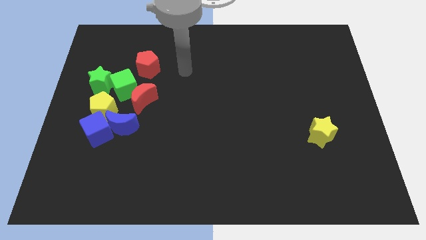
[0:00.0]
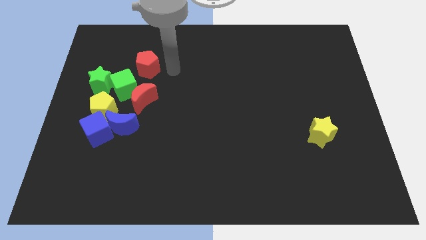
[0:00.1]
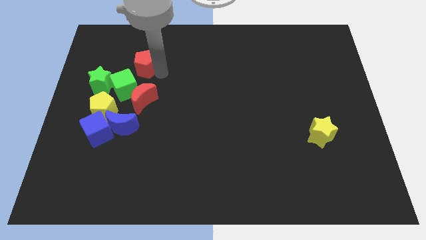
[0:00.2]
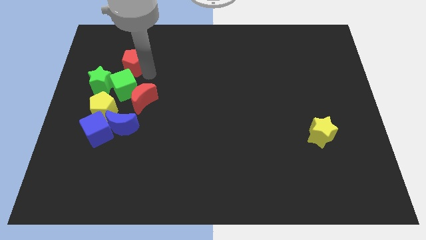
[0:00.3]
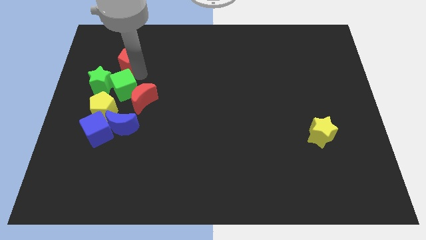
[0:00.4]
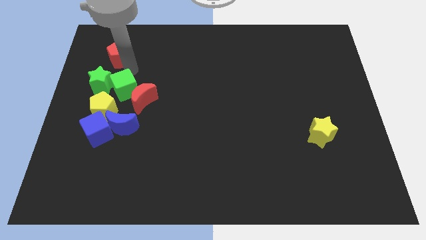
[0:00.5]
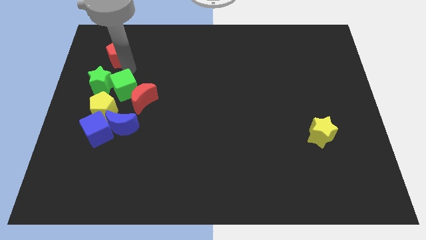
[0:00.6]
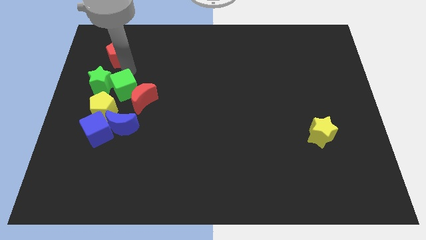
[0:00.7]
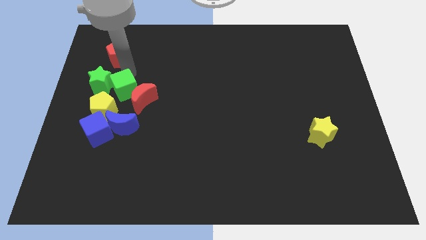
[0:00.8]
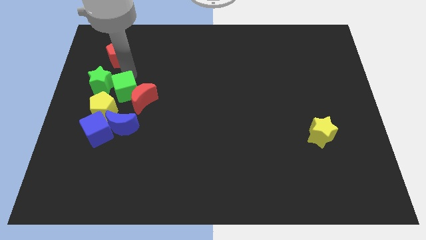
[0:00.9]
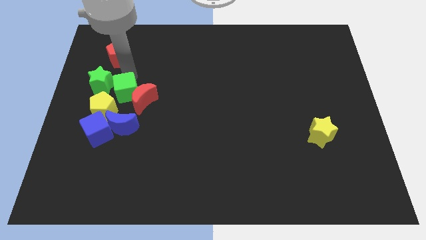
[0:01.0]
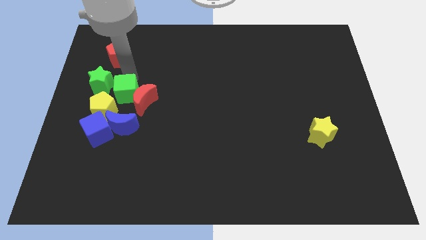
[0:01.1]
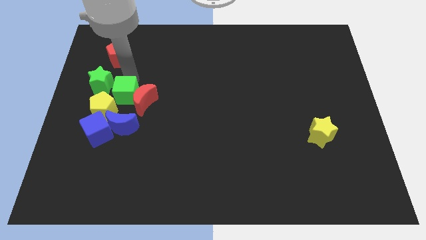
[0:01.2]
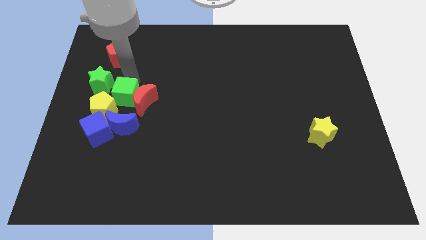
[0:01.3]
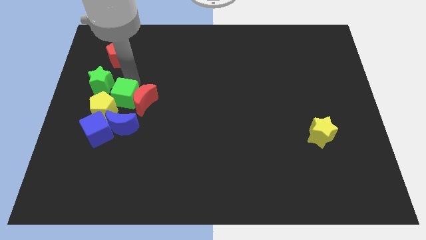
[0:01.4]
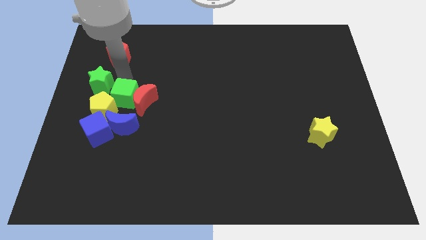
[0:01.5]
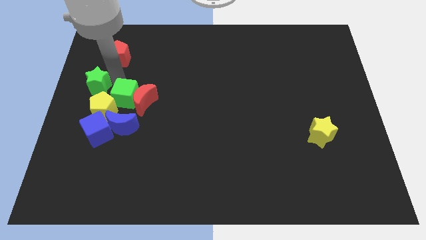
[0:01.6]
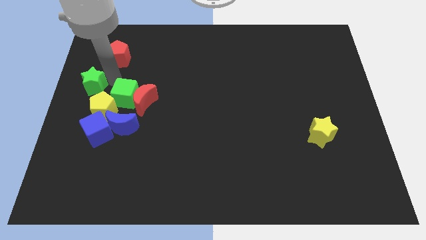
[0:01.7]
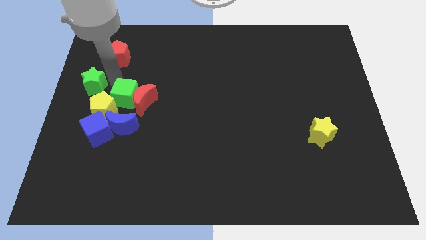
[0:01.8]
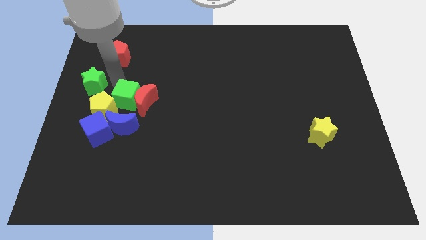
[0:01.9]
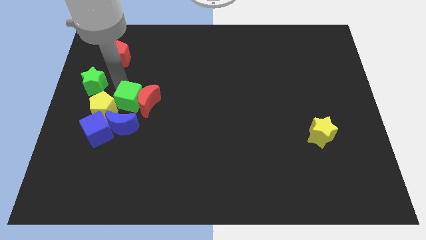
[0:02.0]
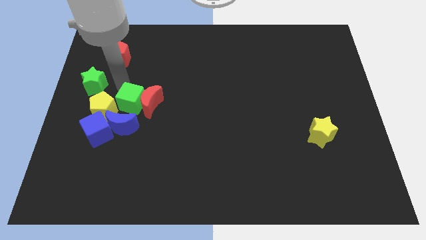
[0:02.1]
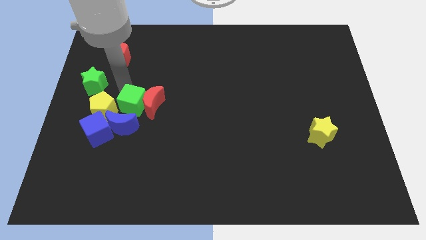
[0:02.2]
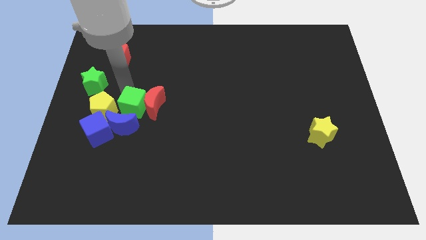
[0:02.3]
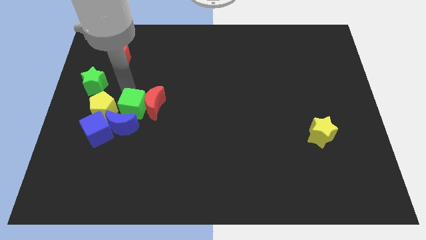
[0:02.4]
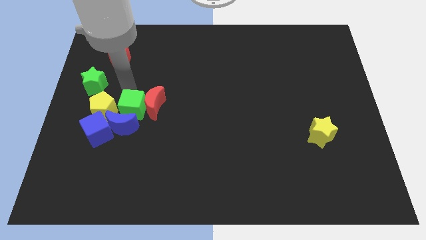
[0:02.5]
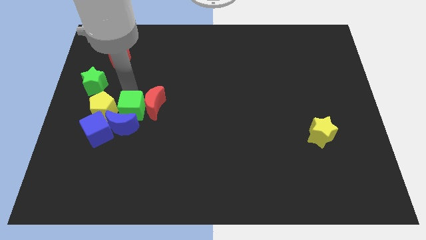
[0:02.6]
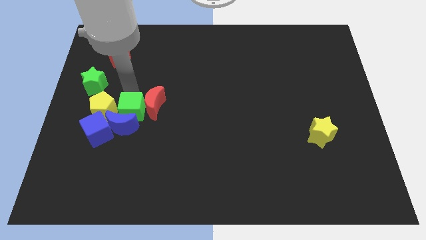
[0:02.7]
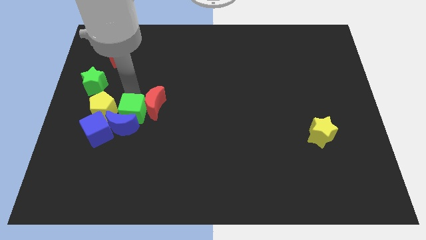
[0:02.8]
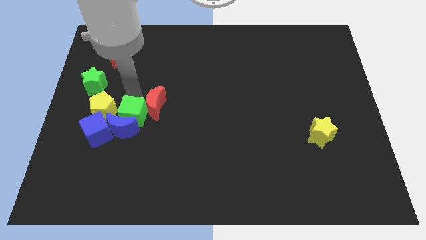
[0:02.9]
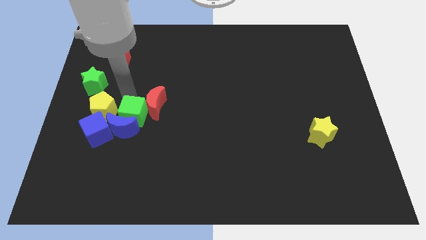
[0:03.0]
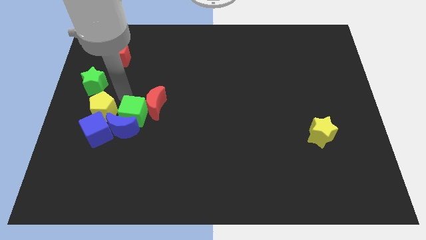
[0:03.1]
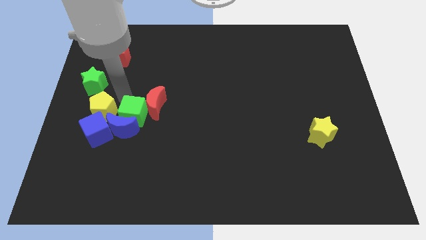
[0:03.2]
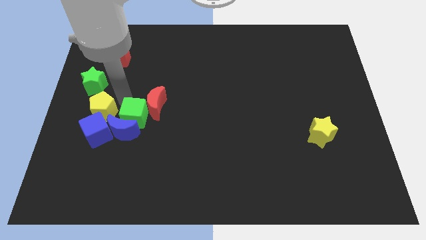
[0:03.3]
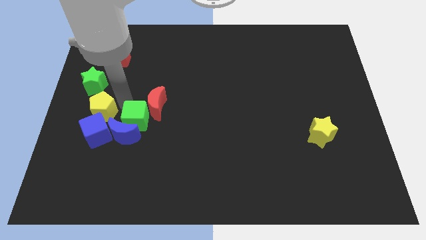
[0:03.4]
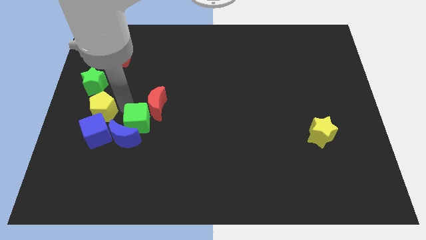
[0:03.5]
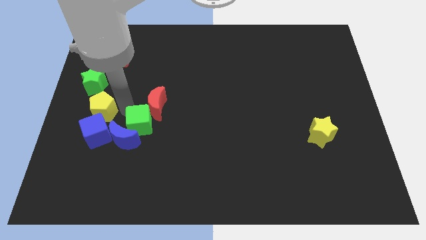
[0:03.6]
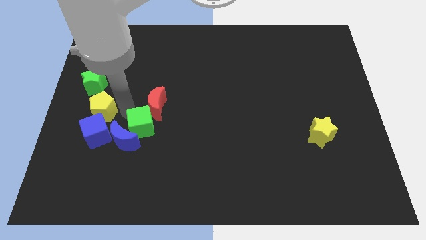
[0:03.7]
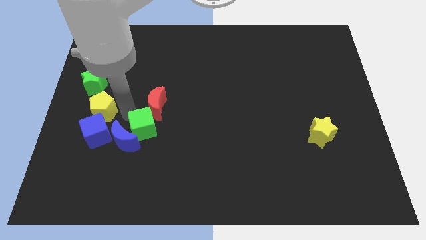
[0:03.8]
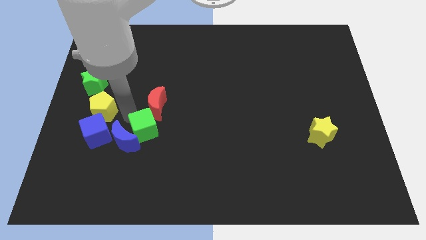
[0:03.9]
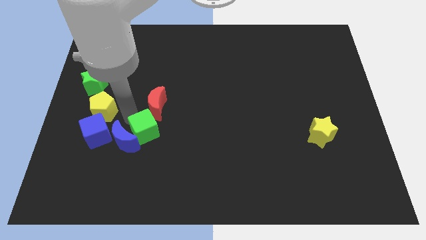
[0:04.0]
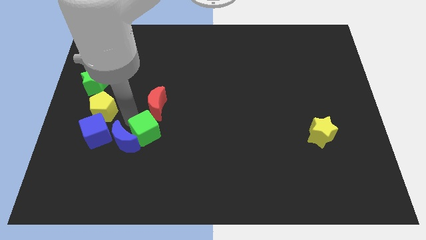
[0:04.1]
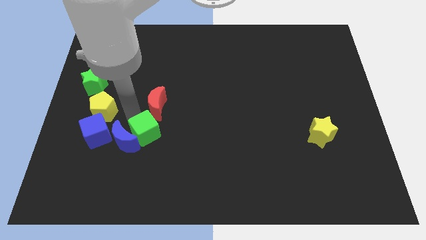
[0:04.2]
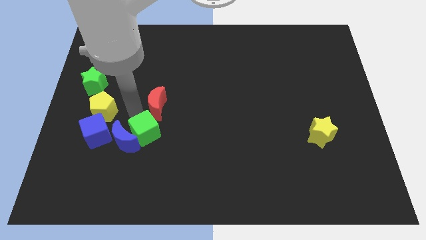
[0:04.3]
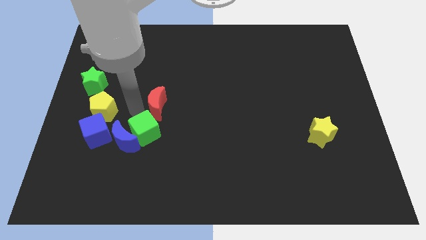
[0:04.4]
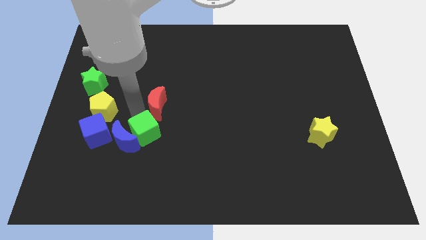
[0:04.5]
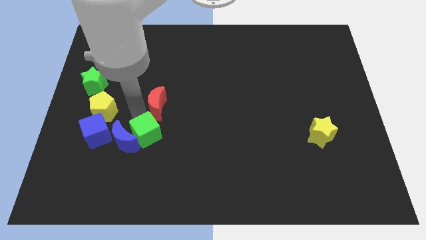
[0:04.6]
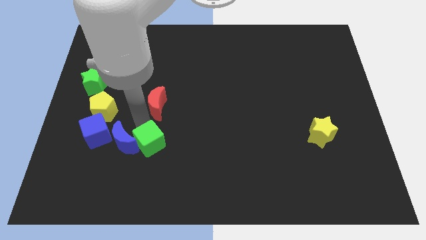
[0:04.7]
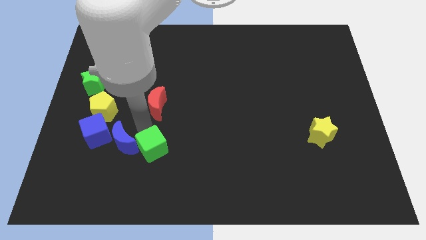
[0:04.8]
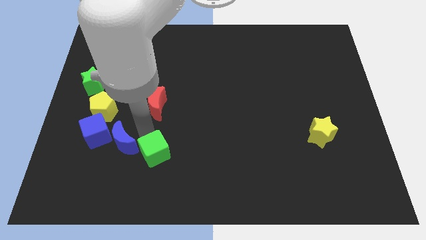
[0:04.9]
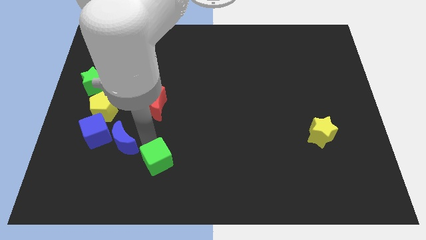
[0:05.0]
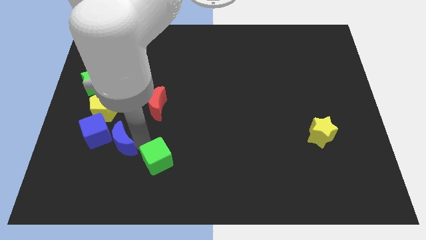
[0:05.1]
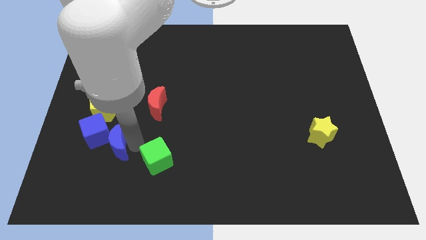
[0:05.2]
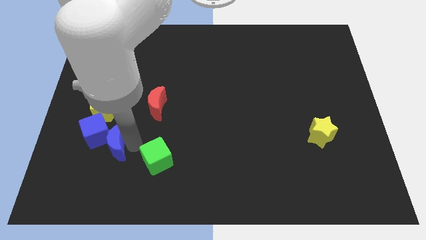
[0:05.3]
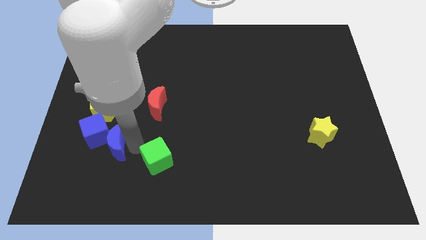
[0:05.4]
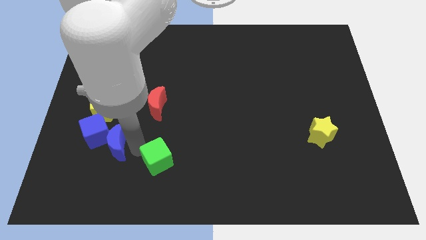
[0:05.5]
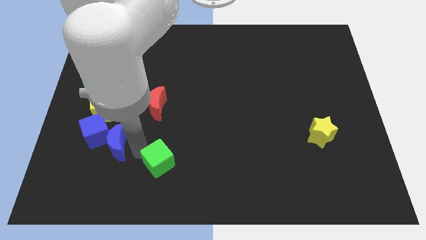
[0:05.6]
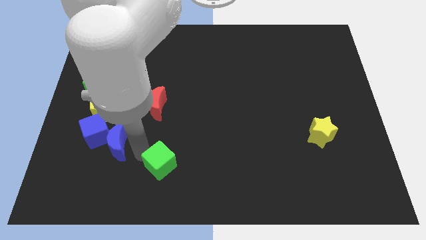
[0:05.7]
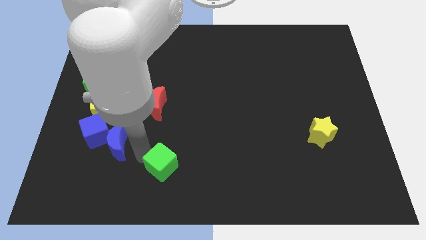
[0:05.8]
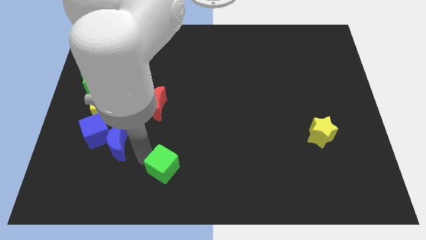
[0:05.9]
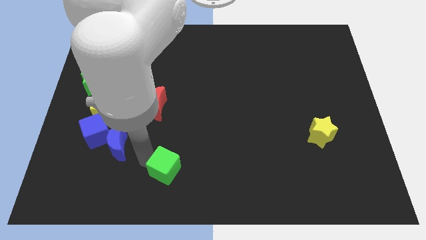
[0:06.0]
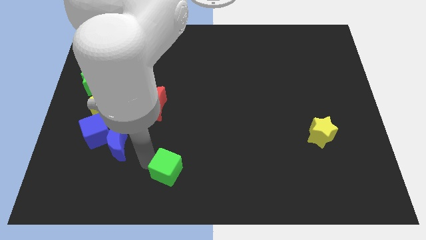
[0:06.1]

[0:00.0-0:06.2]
slide the green cube to the bottom side

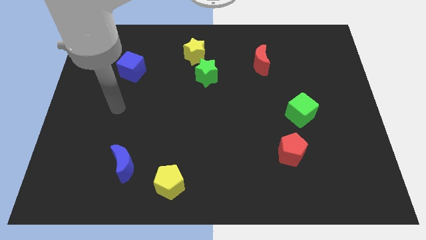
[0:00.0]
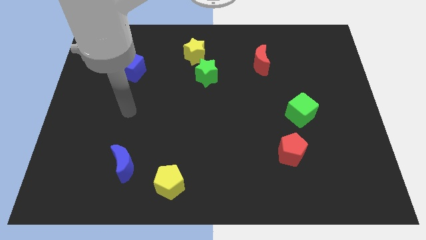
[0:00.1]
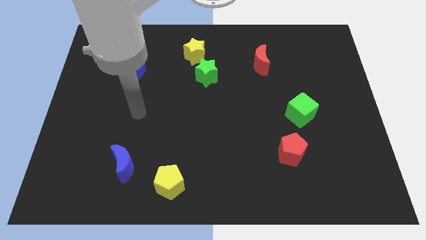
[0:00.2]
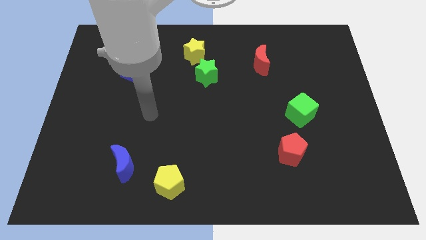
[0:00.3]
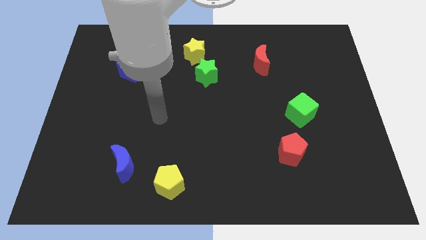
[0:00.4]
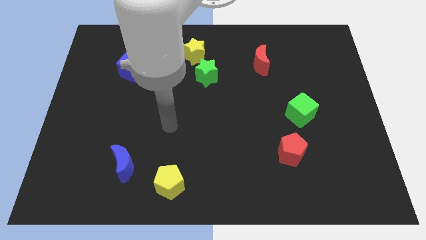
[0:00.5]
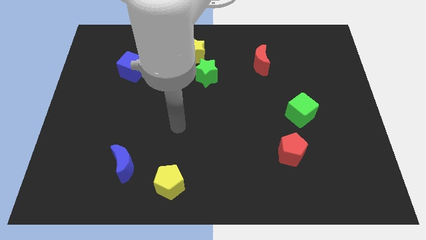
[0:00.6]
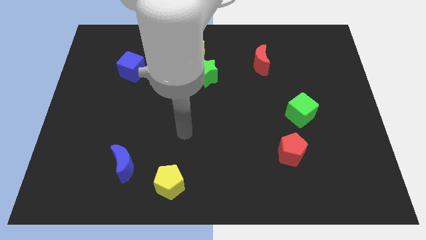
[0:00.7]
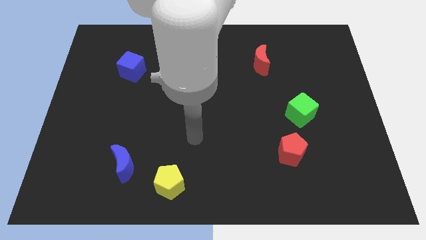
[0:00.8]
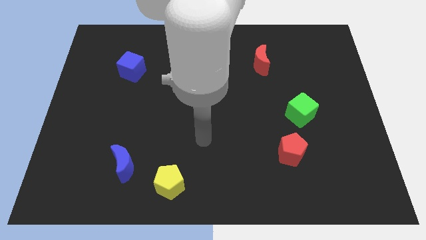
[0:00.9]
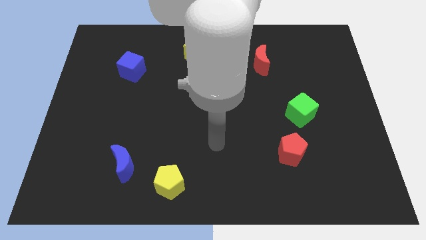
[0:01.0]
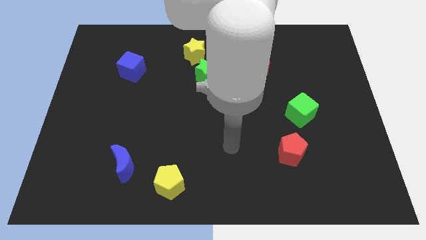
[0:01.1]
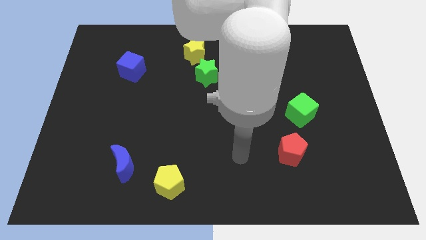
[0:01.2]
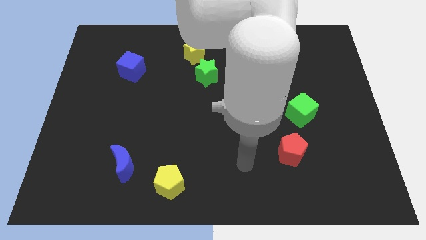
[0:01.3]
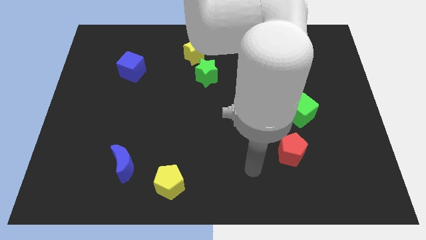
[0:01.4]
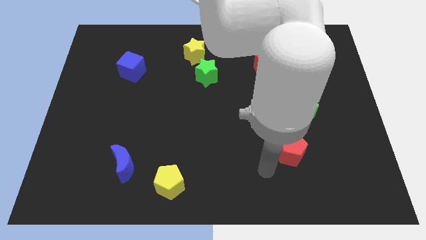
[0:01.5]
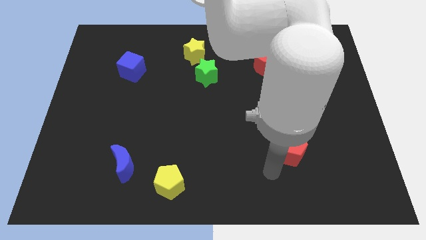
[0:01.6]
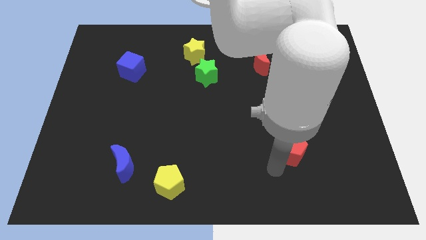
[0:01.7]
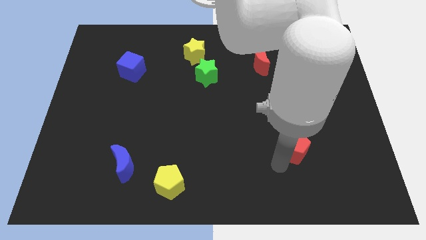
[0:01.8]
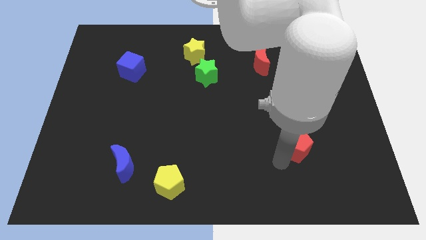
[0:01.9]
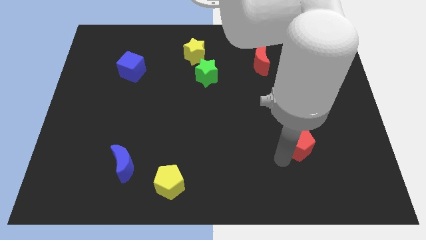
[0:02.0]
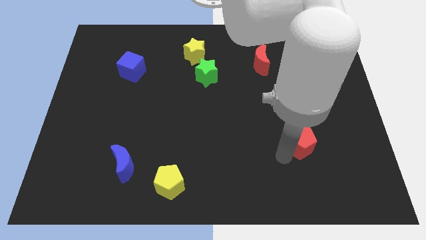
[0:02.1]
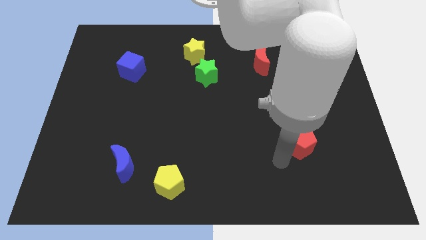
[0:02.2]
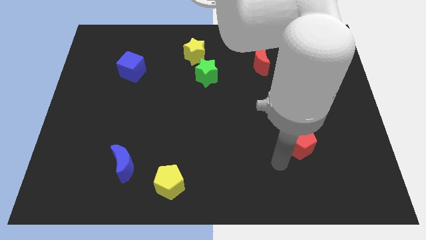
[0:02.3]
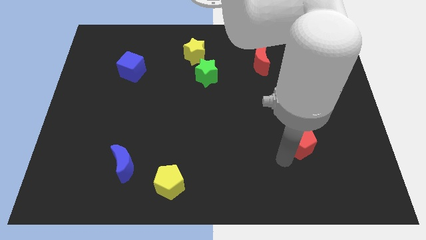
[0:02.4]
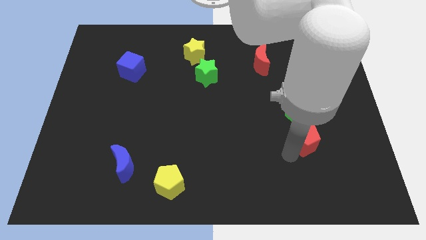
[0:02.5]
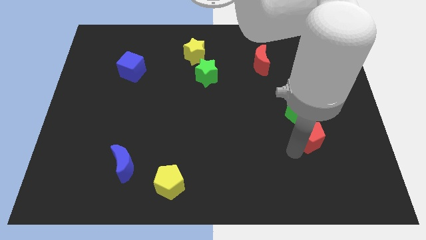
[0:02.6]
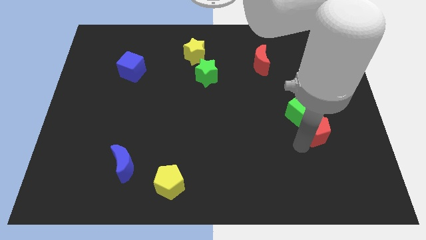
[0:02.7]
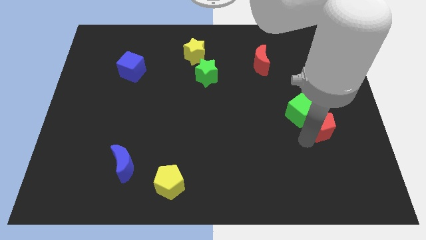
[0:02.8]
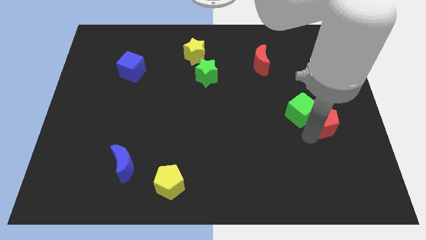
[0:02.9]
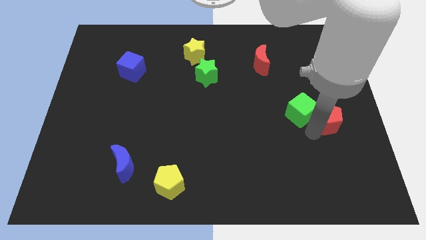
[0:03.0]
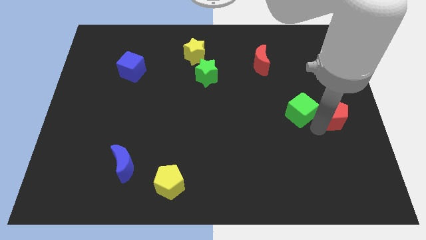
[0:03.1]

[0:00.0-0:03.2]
push the red pentagon to the right side
